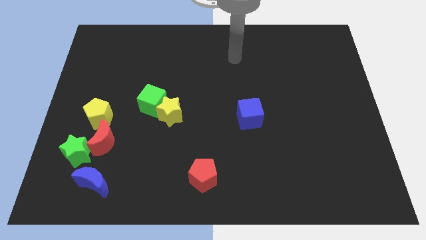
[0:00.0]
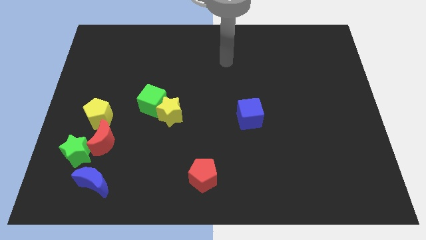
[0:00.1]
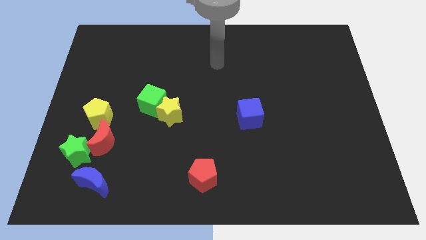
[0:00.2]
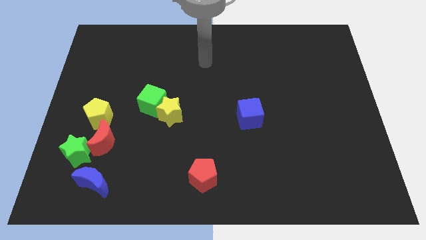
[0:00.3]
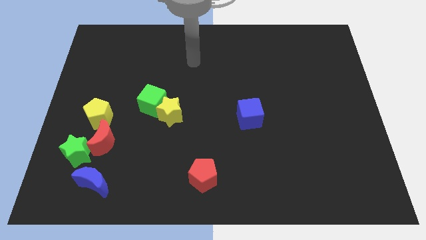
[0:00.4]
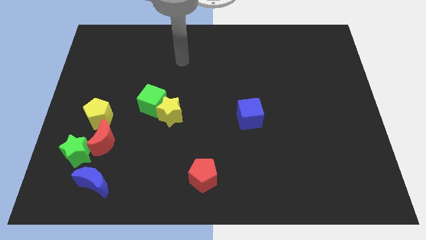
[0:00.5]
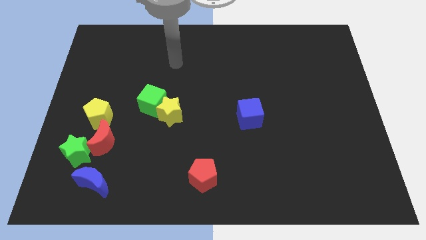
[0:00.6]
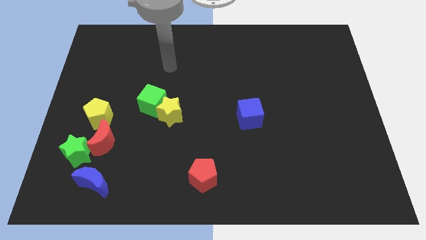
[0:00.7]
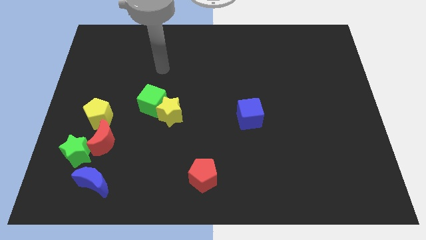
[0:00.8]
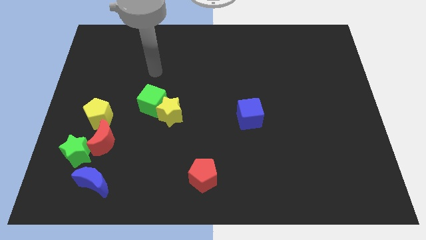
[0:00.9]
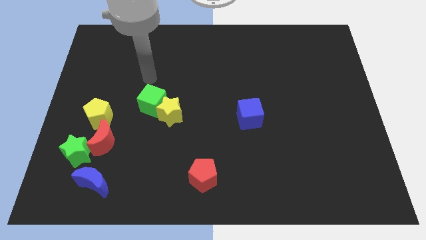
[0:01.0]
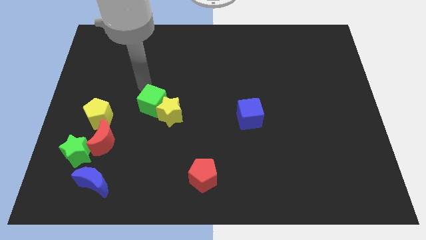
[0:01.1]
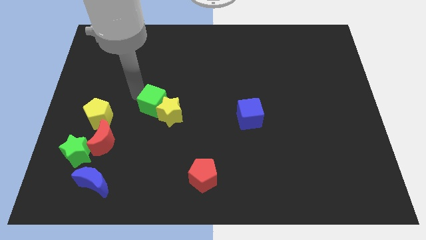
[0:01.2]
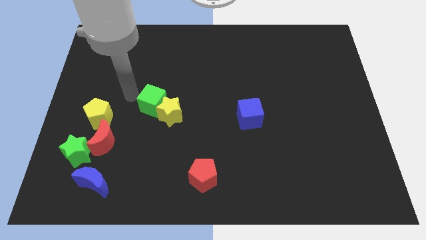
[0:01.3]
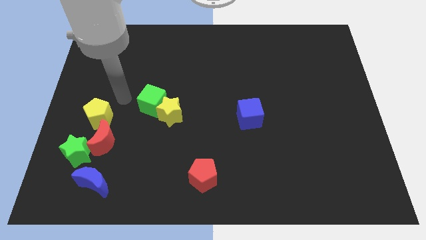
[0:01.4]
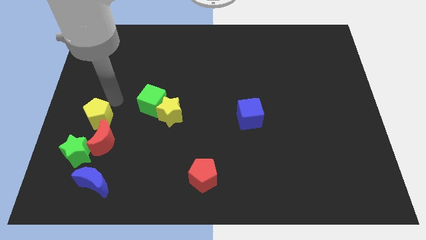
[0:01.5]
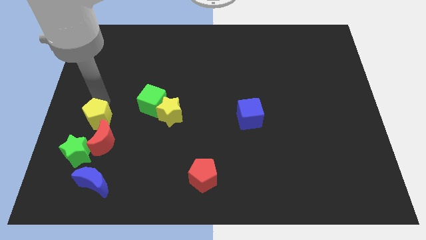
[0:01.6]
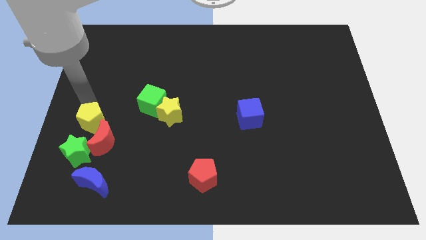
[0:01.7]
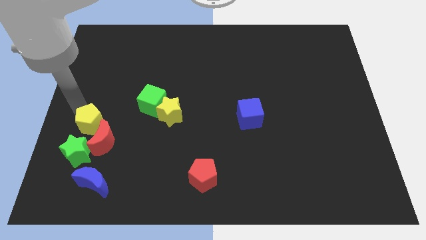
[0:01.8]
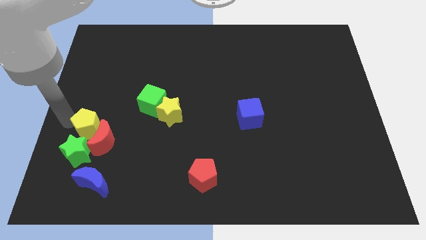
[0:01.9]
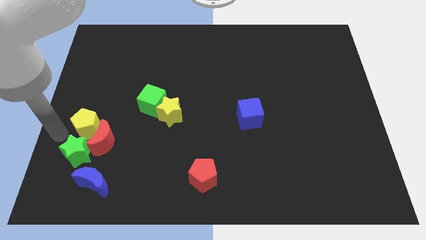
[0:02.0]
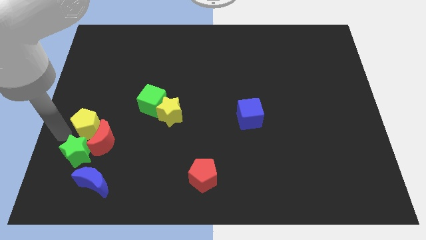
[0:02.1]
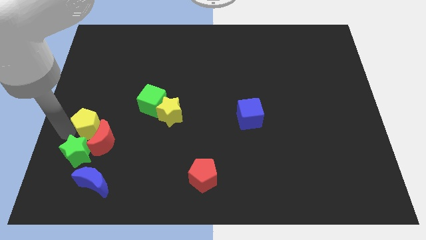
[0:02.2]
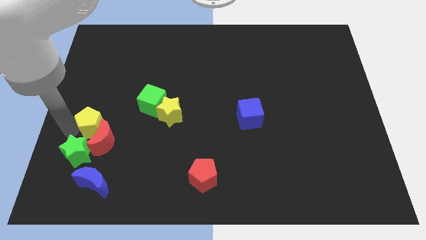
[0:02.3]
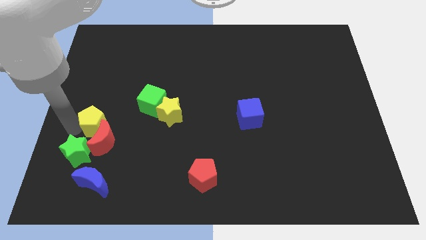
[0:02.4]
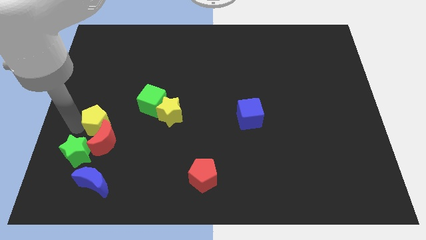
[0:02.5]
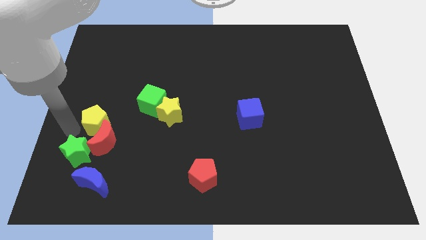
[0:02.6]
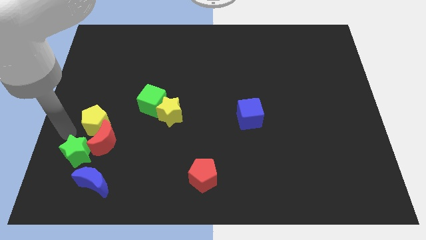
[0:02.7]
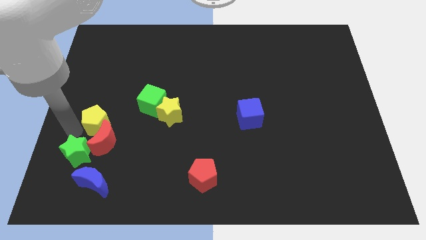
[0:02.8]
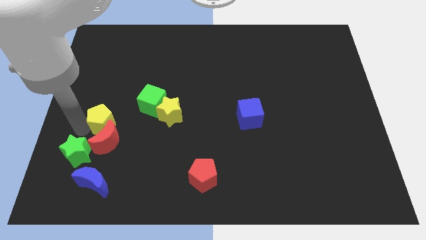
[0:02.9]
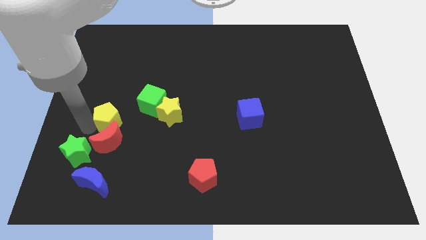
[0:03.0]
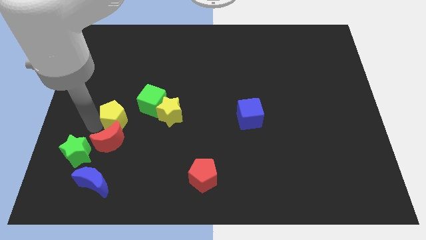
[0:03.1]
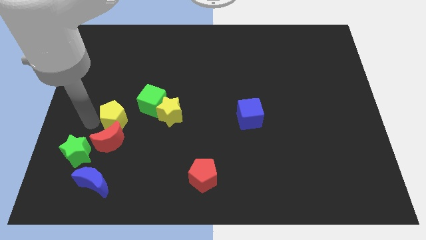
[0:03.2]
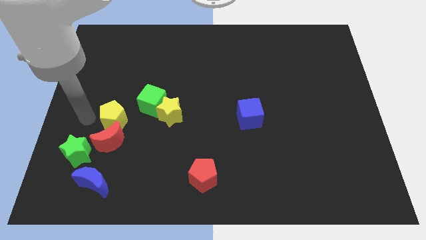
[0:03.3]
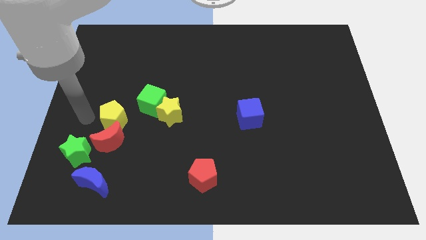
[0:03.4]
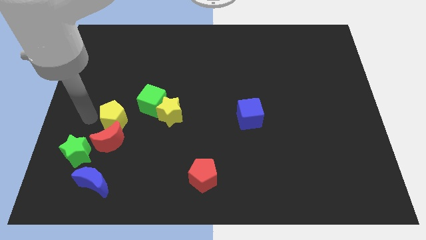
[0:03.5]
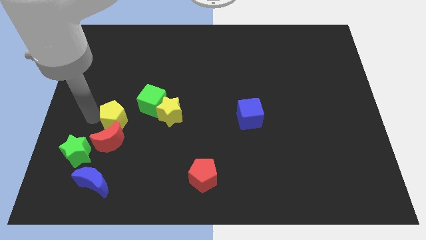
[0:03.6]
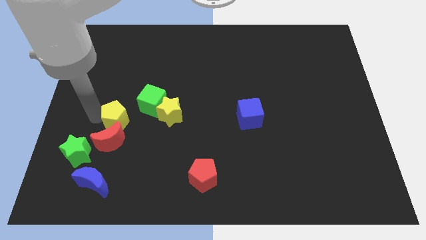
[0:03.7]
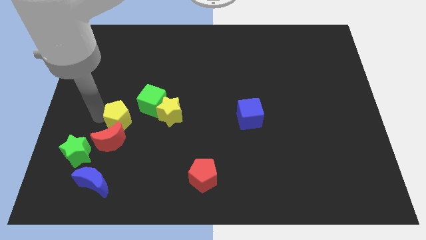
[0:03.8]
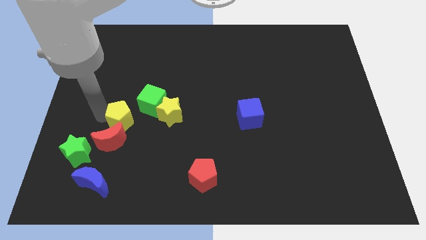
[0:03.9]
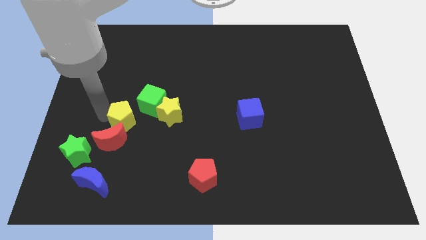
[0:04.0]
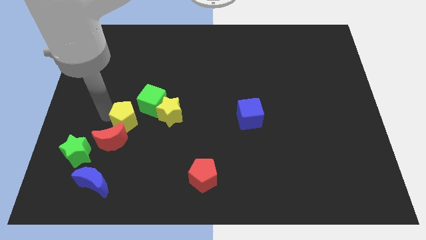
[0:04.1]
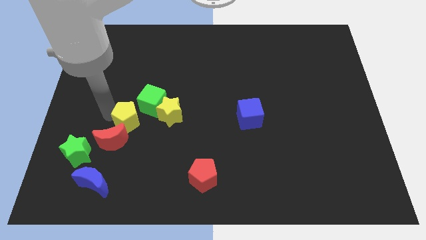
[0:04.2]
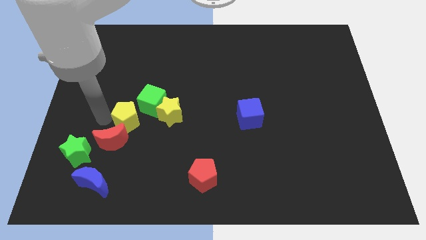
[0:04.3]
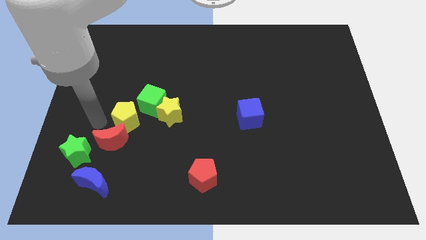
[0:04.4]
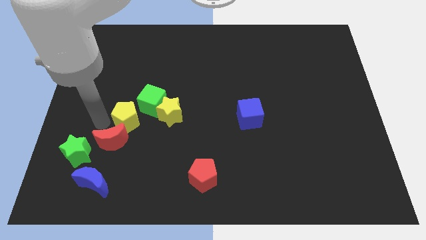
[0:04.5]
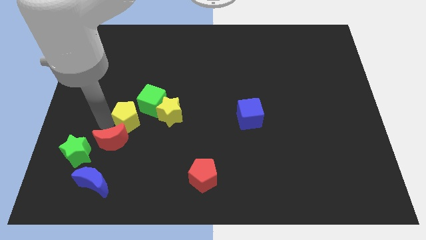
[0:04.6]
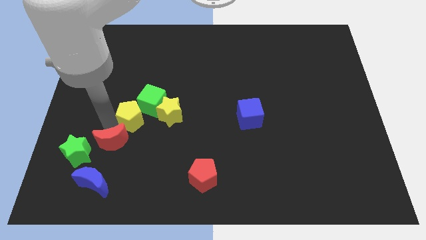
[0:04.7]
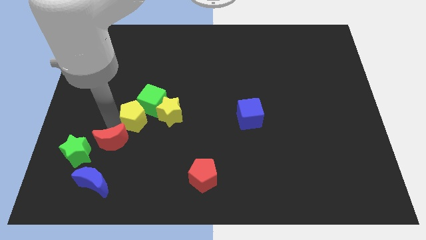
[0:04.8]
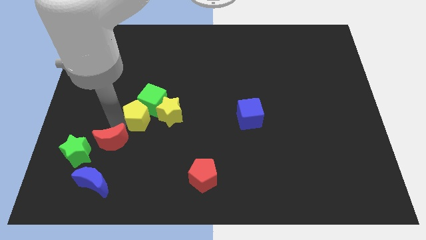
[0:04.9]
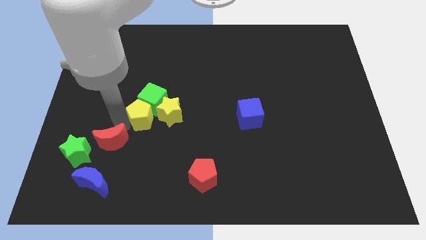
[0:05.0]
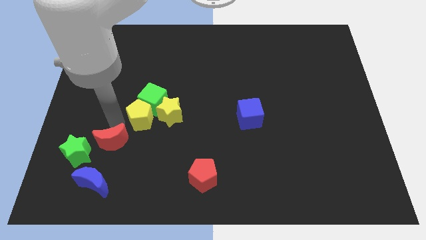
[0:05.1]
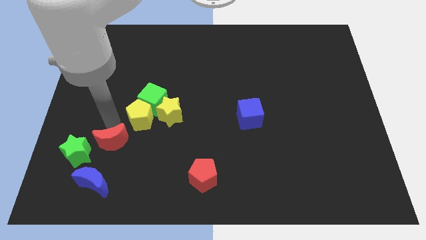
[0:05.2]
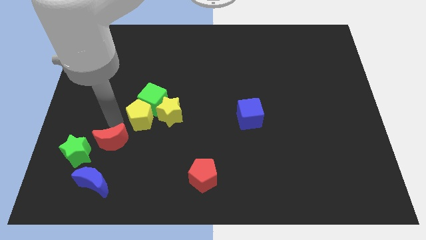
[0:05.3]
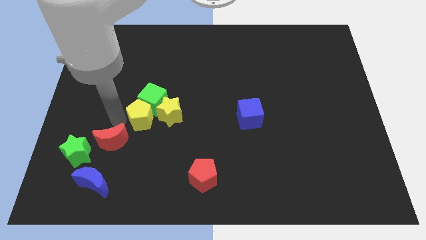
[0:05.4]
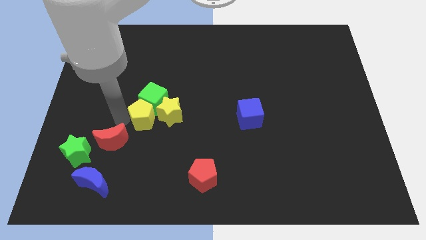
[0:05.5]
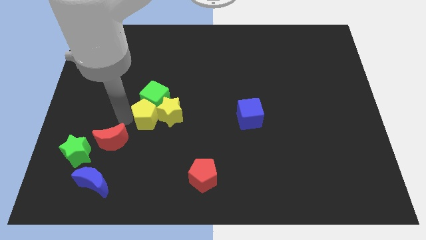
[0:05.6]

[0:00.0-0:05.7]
move the yellow pentagon next to the yellow star

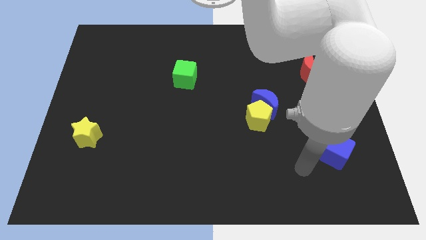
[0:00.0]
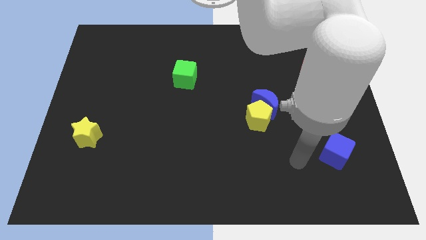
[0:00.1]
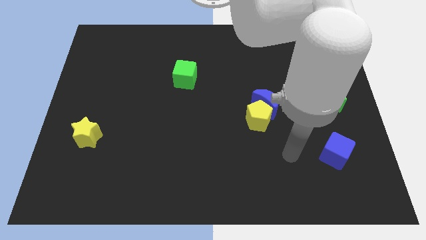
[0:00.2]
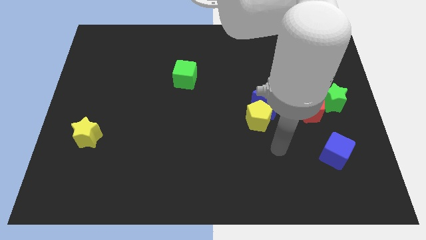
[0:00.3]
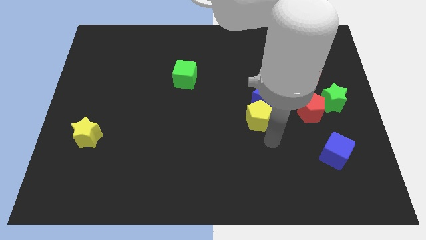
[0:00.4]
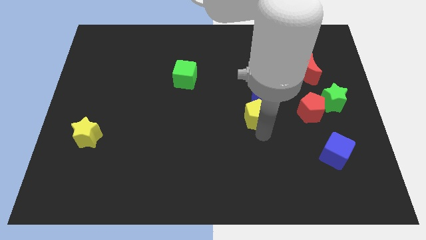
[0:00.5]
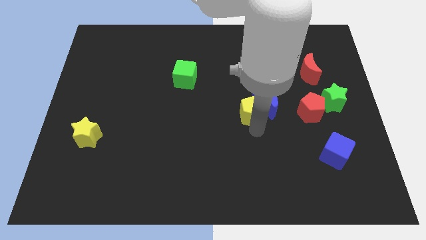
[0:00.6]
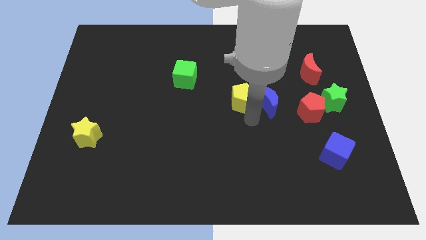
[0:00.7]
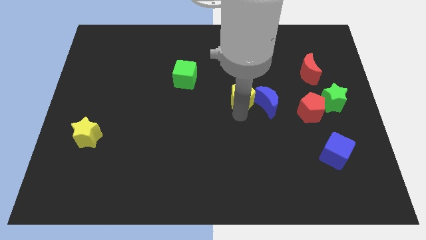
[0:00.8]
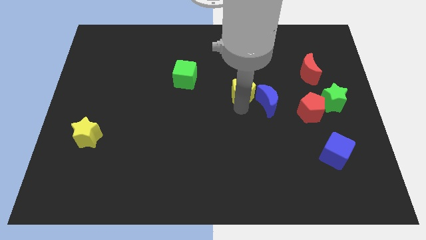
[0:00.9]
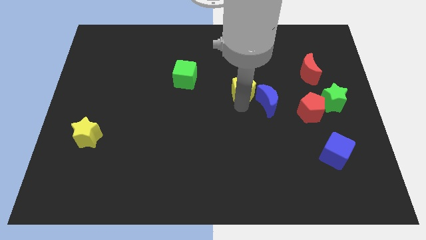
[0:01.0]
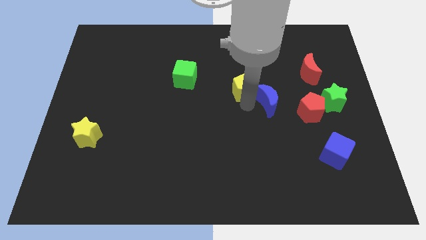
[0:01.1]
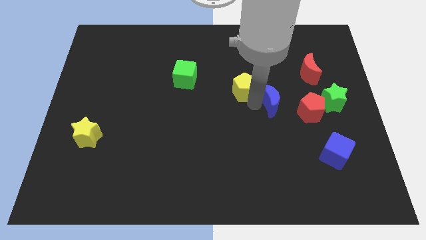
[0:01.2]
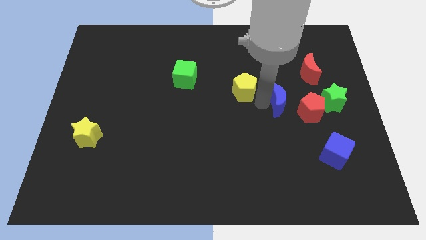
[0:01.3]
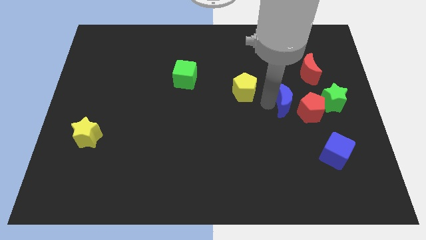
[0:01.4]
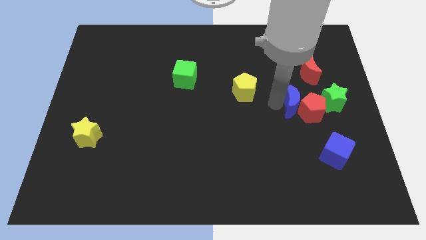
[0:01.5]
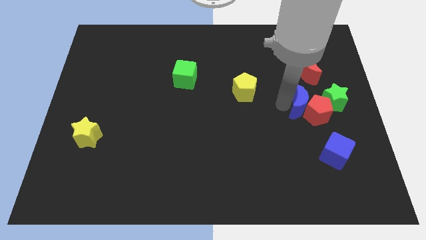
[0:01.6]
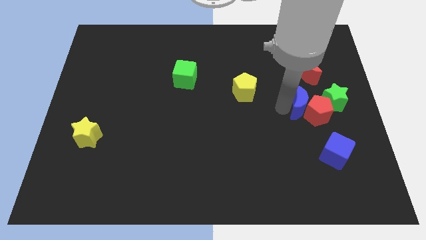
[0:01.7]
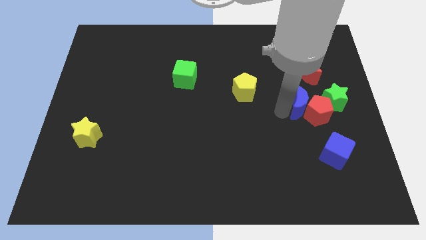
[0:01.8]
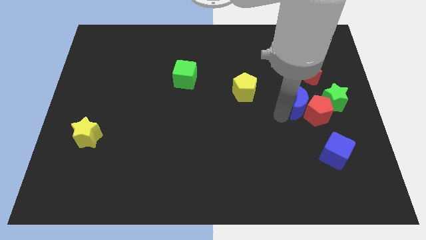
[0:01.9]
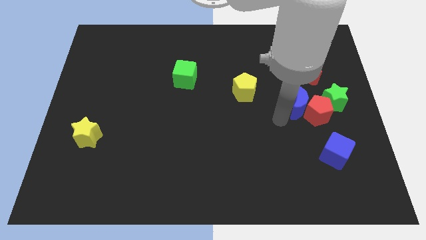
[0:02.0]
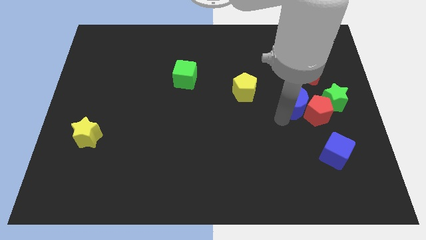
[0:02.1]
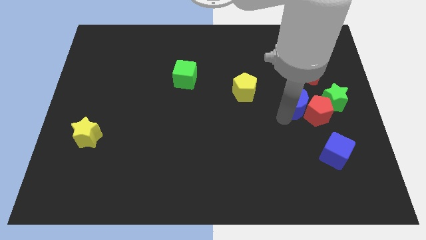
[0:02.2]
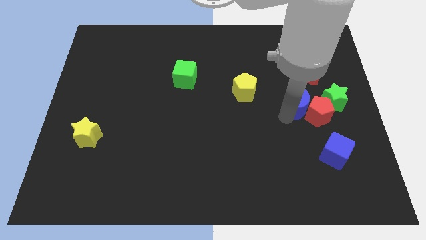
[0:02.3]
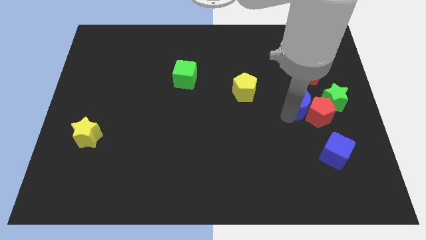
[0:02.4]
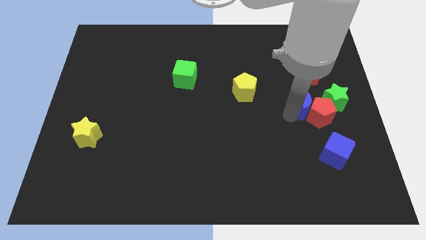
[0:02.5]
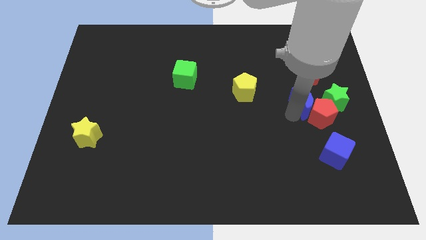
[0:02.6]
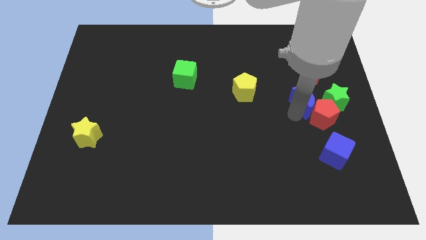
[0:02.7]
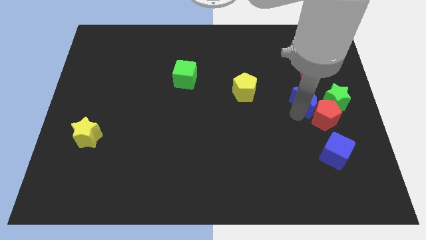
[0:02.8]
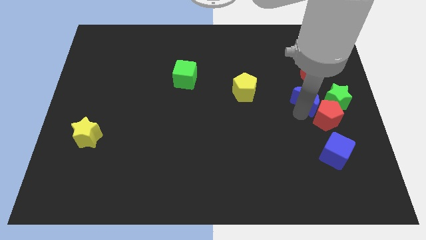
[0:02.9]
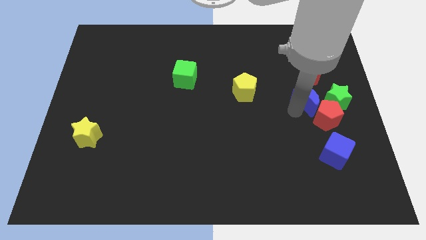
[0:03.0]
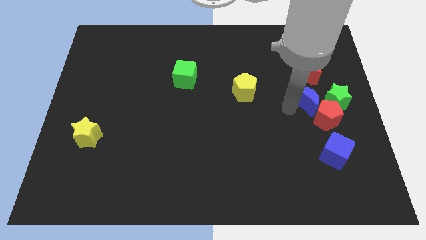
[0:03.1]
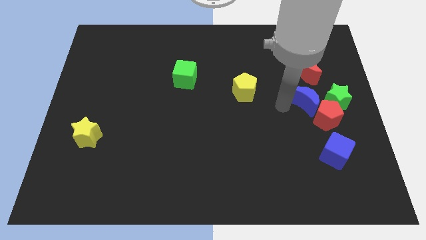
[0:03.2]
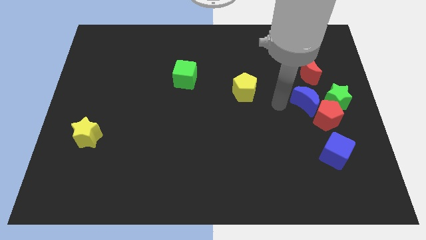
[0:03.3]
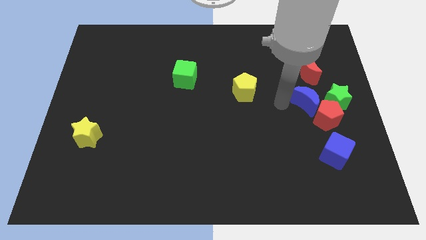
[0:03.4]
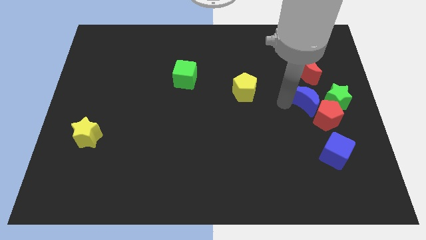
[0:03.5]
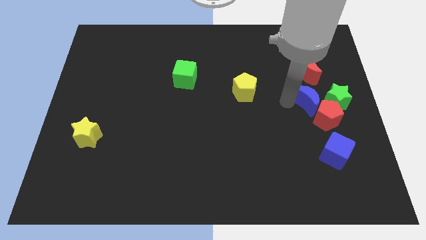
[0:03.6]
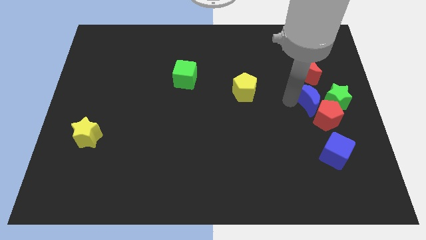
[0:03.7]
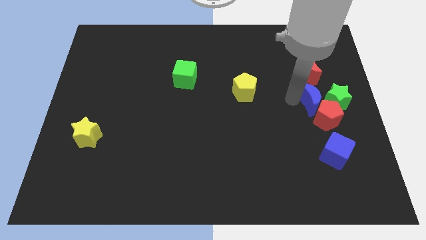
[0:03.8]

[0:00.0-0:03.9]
push the blue moon next to the green star
